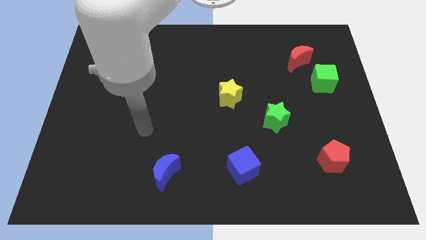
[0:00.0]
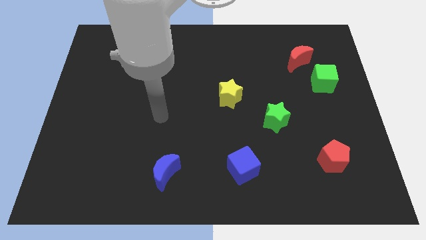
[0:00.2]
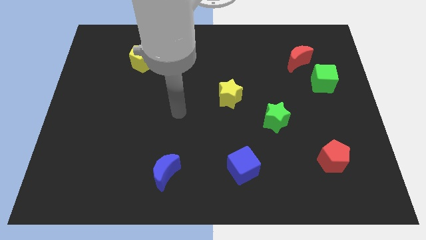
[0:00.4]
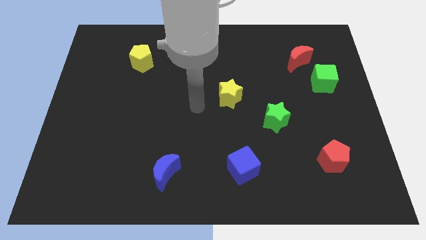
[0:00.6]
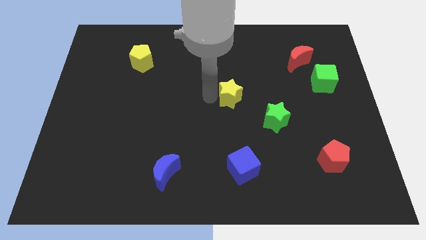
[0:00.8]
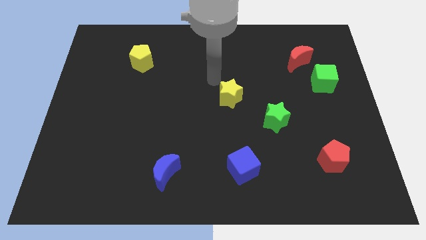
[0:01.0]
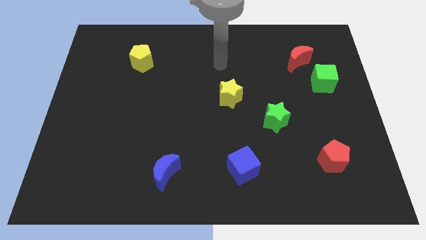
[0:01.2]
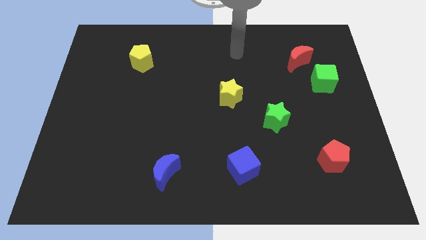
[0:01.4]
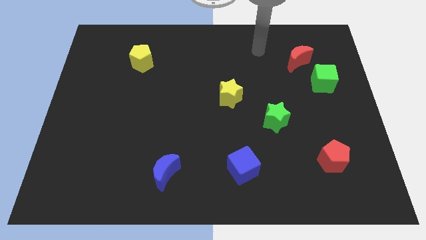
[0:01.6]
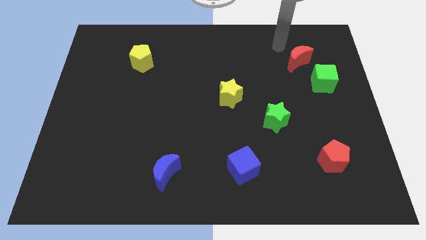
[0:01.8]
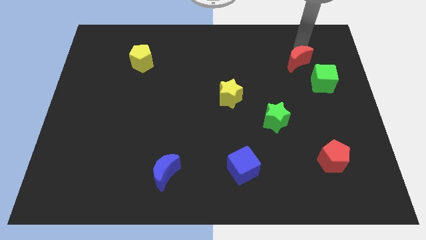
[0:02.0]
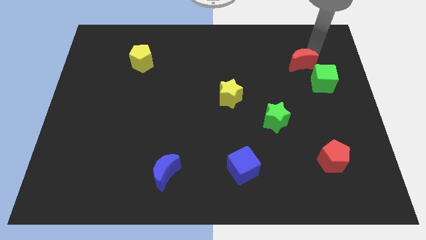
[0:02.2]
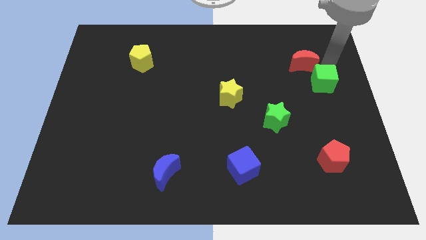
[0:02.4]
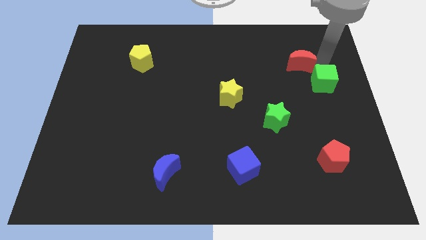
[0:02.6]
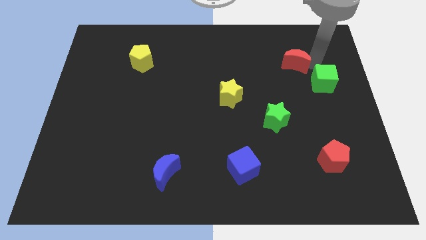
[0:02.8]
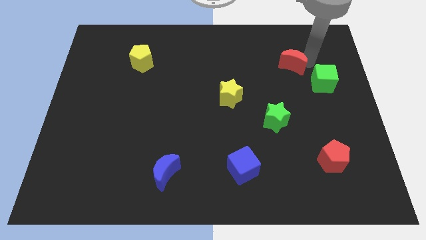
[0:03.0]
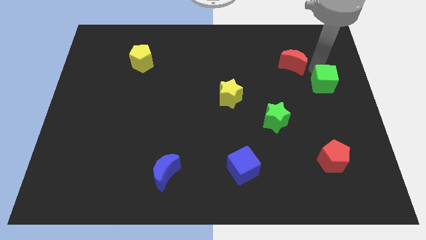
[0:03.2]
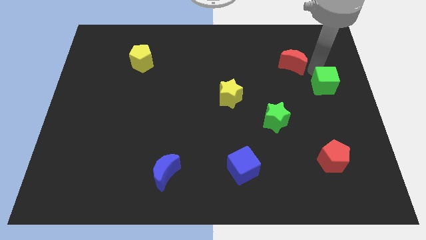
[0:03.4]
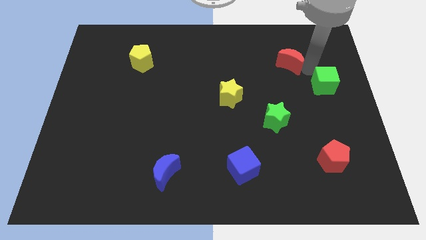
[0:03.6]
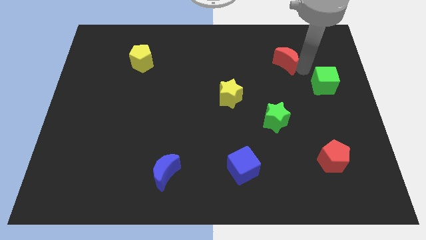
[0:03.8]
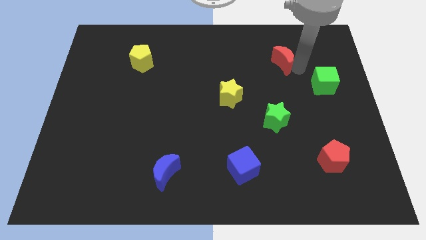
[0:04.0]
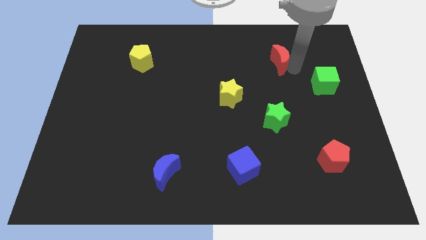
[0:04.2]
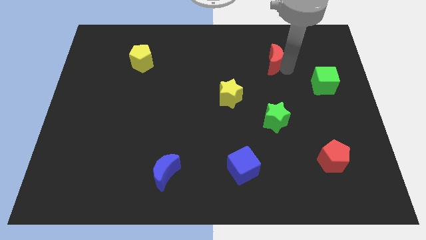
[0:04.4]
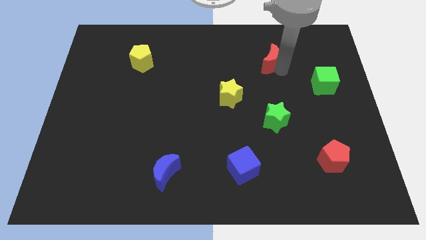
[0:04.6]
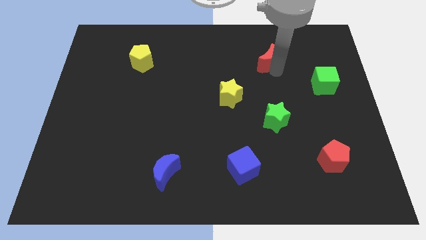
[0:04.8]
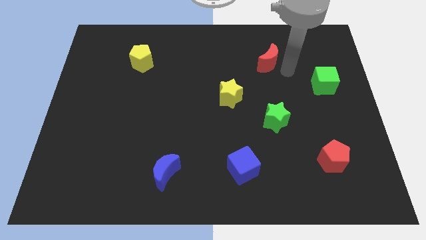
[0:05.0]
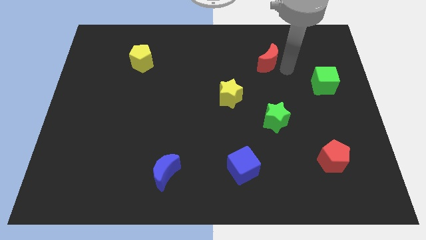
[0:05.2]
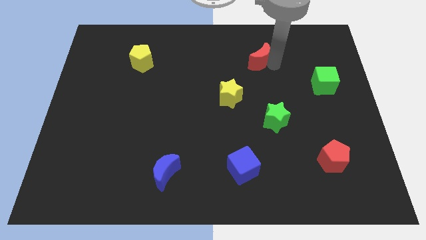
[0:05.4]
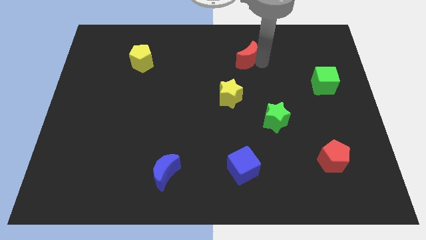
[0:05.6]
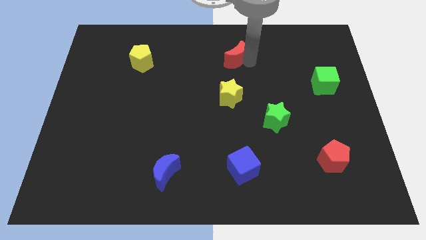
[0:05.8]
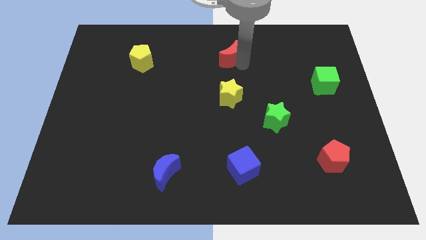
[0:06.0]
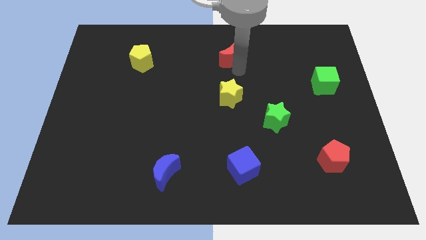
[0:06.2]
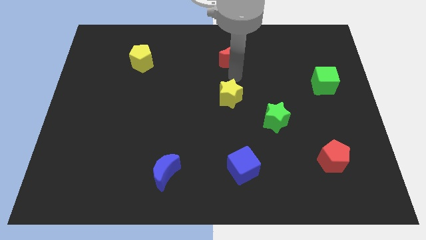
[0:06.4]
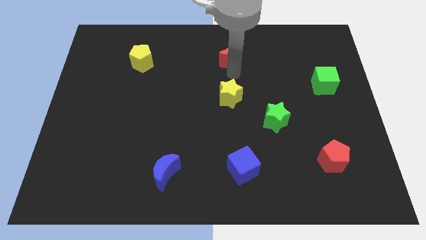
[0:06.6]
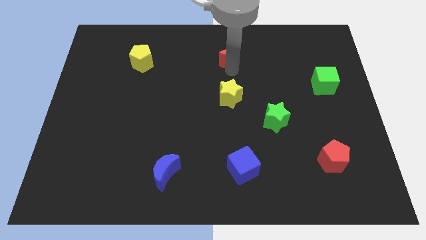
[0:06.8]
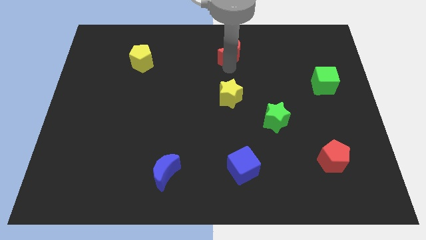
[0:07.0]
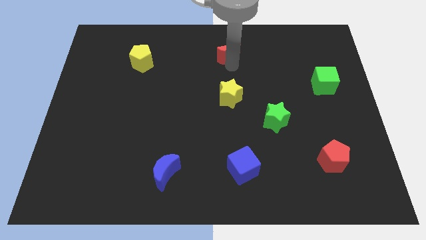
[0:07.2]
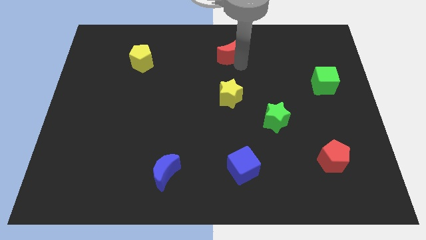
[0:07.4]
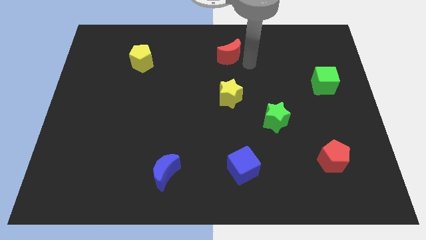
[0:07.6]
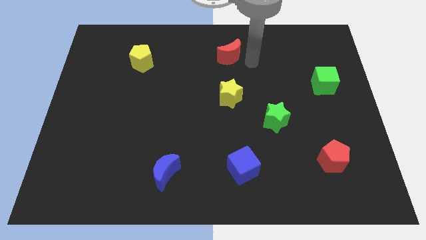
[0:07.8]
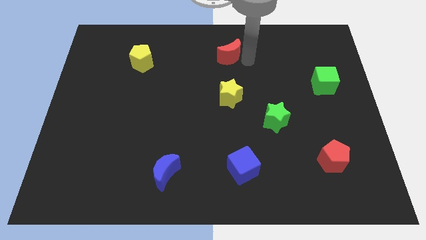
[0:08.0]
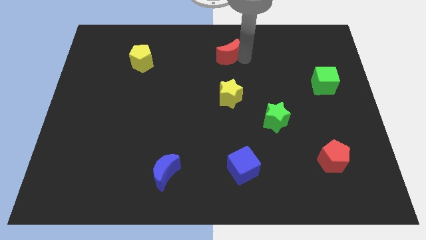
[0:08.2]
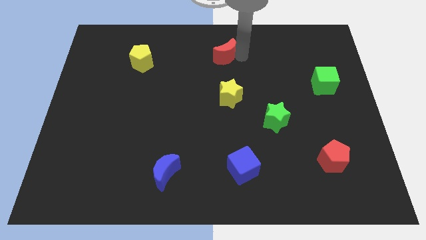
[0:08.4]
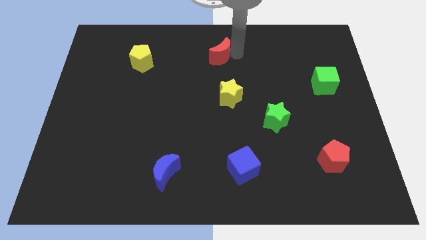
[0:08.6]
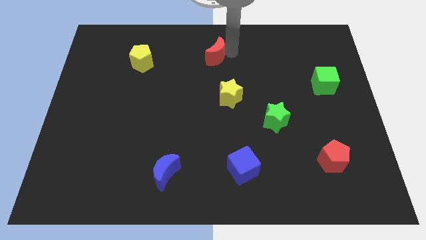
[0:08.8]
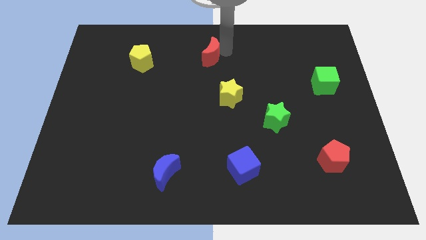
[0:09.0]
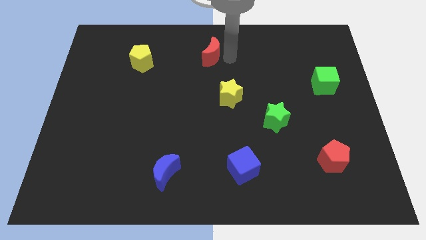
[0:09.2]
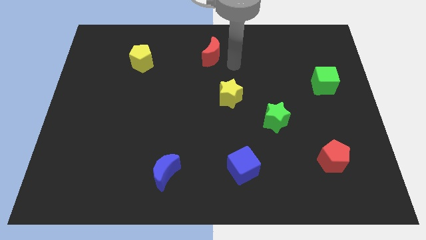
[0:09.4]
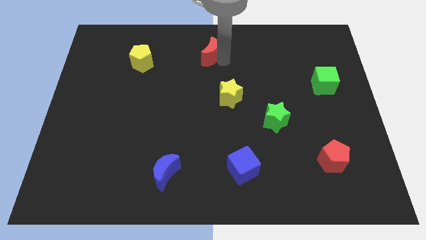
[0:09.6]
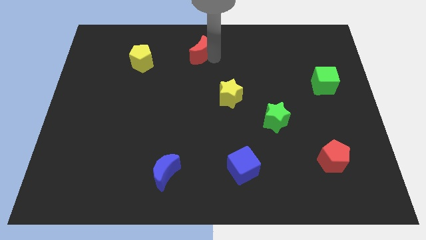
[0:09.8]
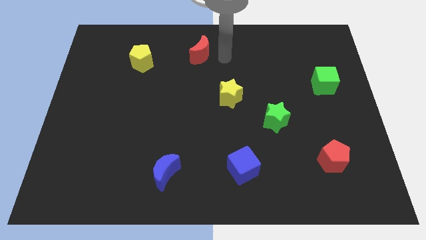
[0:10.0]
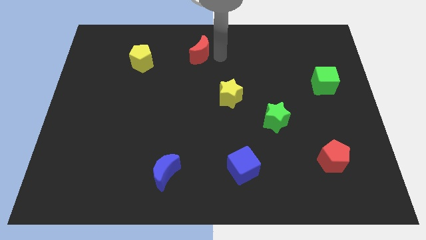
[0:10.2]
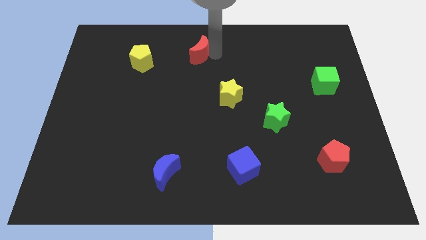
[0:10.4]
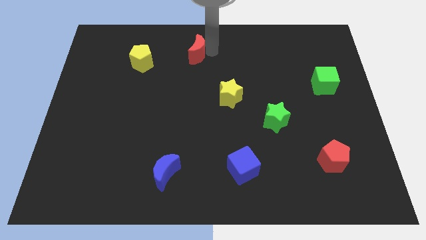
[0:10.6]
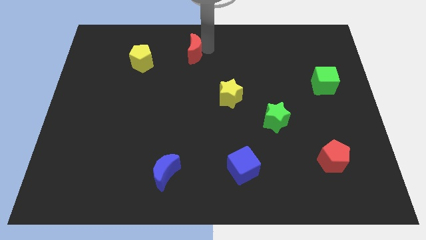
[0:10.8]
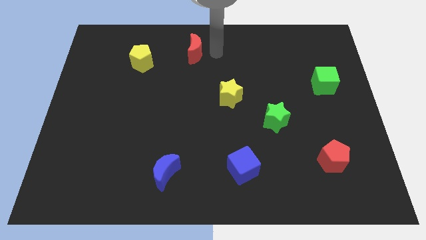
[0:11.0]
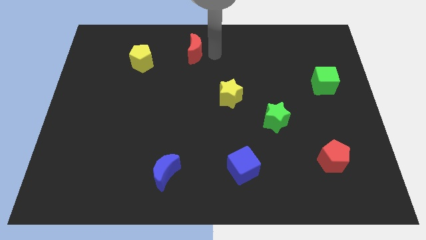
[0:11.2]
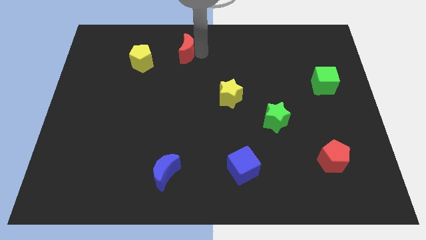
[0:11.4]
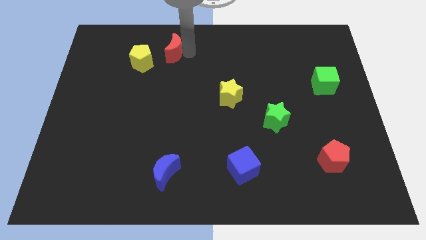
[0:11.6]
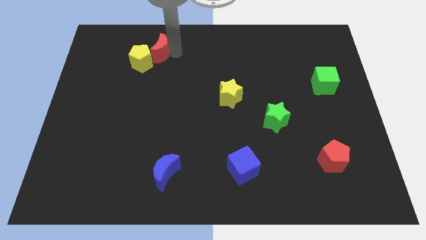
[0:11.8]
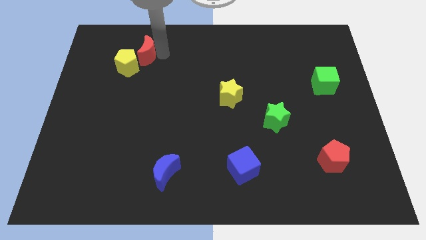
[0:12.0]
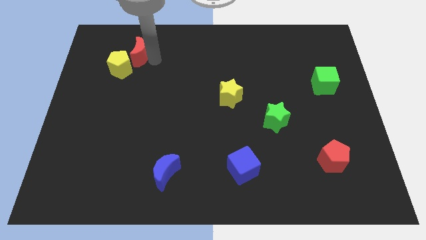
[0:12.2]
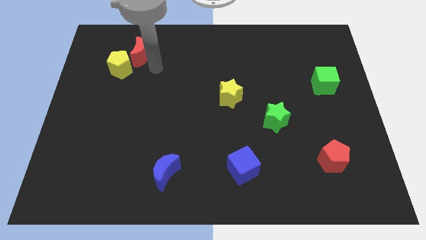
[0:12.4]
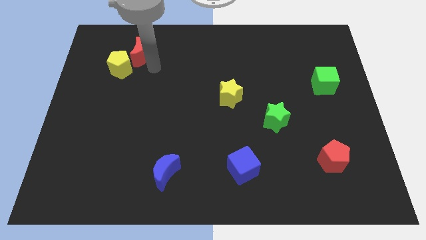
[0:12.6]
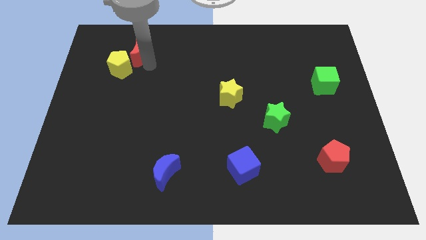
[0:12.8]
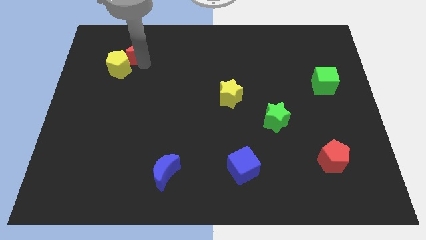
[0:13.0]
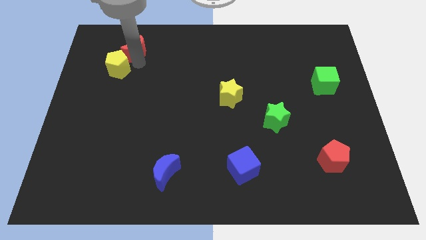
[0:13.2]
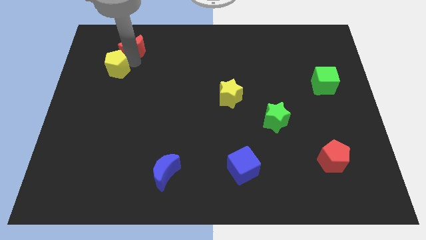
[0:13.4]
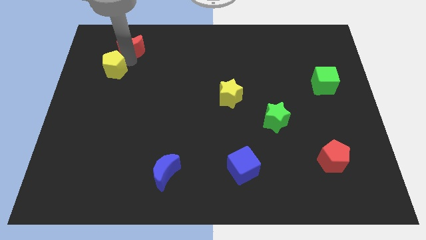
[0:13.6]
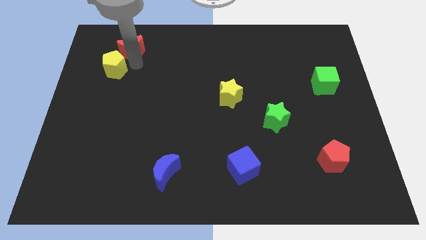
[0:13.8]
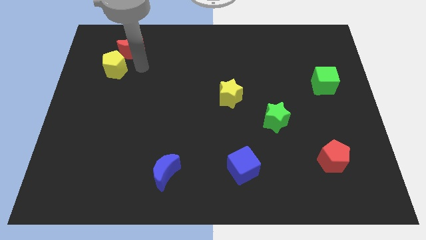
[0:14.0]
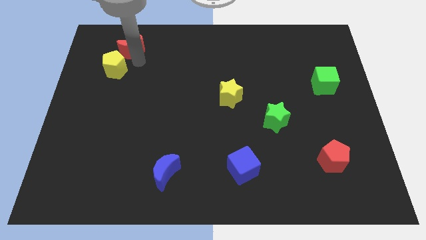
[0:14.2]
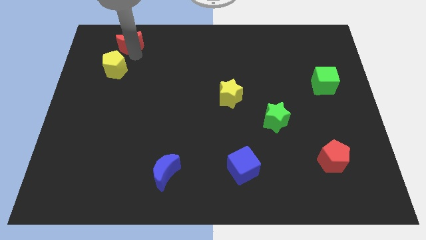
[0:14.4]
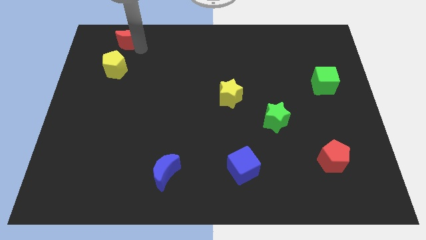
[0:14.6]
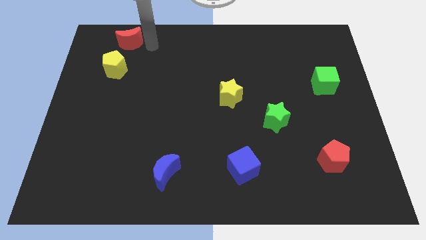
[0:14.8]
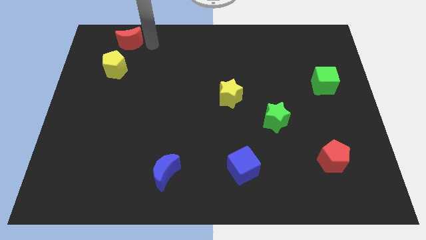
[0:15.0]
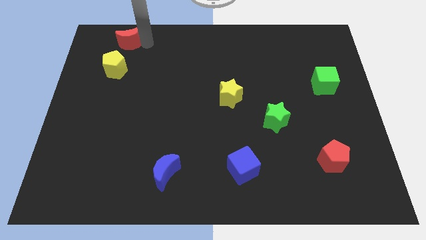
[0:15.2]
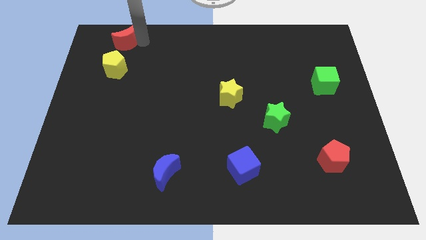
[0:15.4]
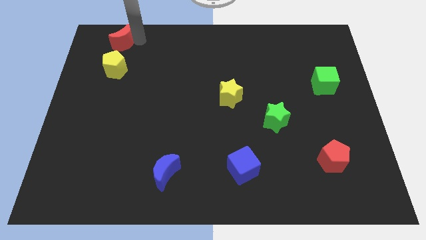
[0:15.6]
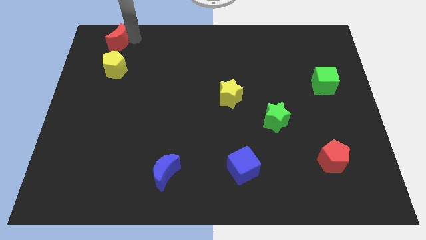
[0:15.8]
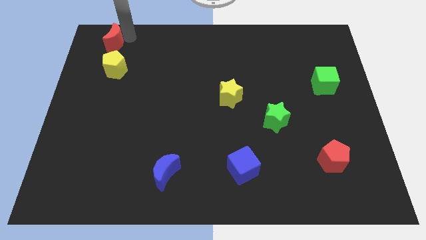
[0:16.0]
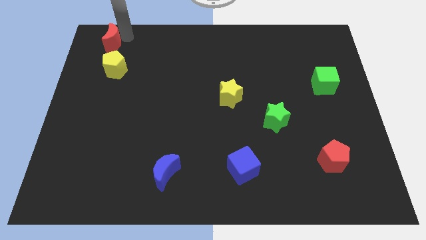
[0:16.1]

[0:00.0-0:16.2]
push the red moon to the top left
